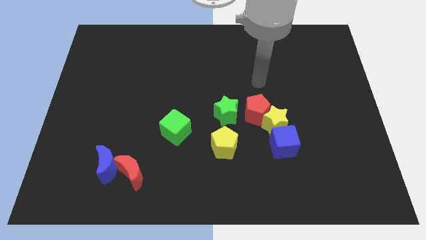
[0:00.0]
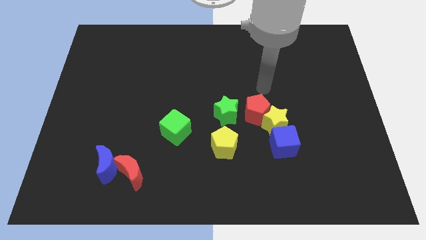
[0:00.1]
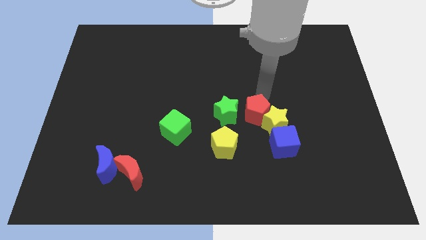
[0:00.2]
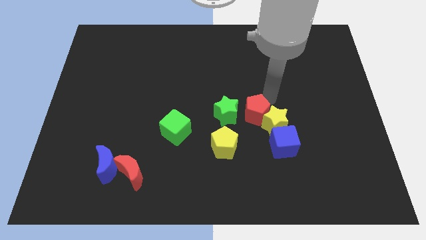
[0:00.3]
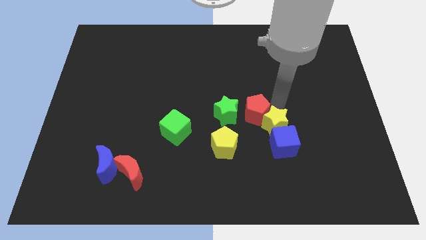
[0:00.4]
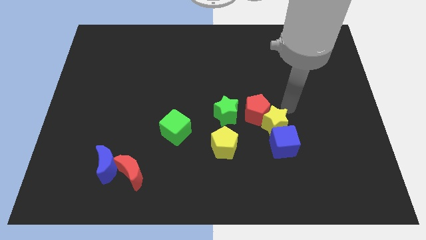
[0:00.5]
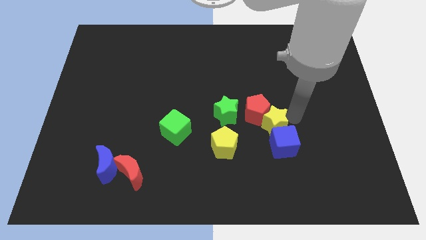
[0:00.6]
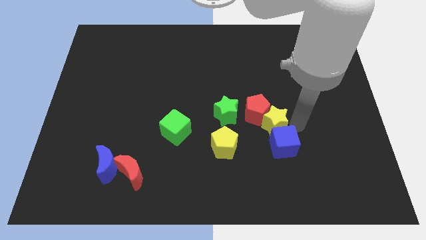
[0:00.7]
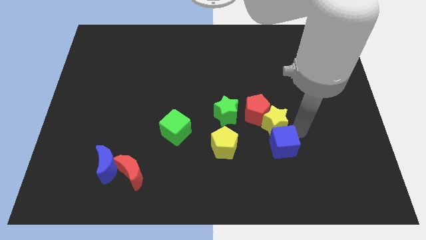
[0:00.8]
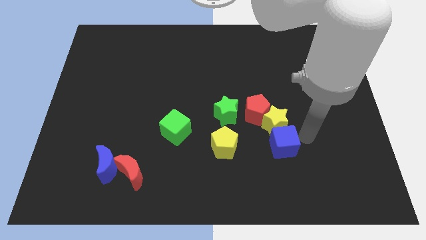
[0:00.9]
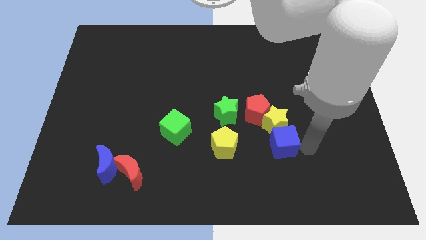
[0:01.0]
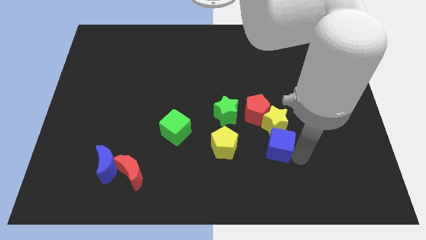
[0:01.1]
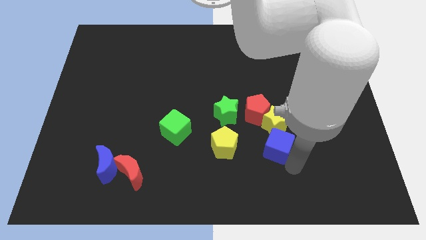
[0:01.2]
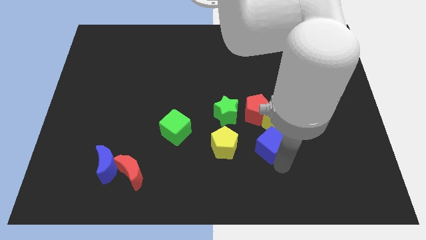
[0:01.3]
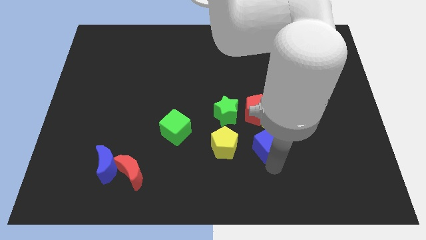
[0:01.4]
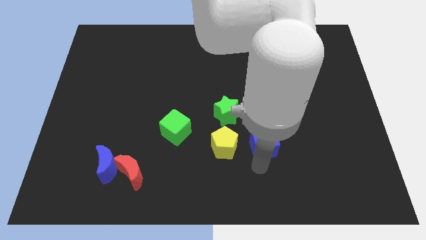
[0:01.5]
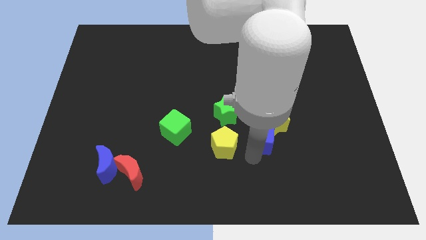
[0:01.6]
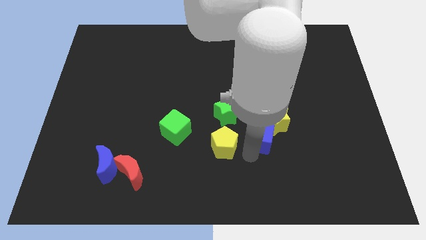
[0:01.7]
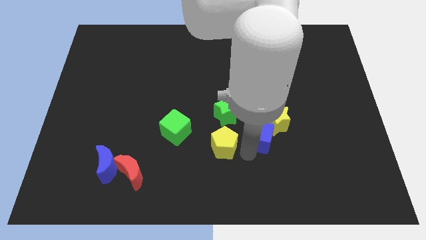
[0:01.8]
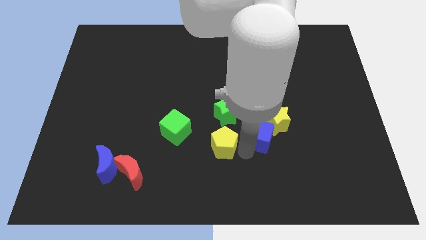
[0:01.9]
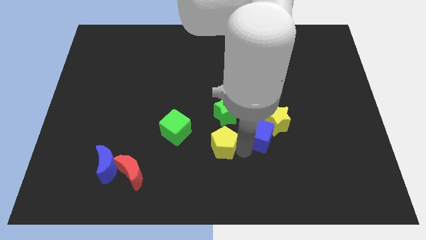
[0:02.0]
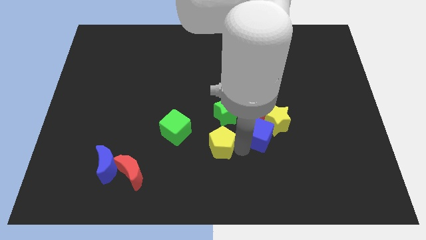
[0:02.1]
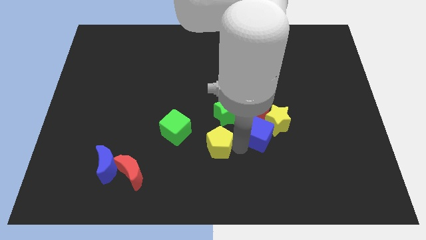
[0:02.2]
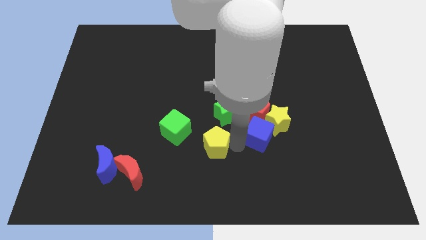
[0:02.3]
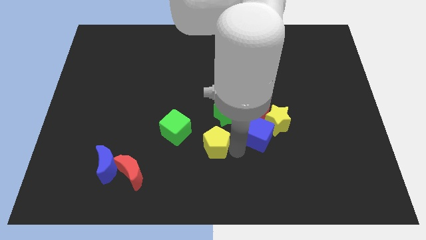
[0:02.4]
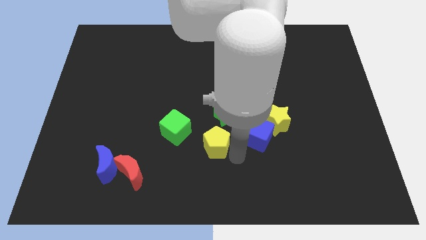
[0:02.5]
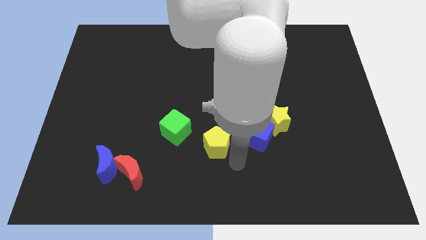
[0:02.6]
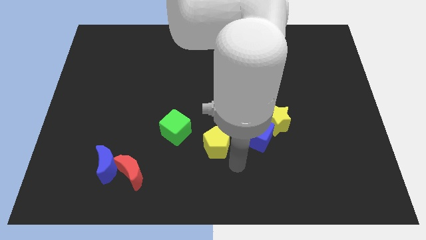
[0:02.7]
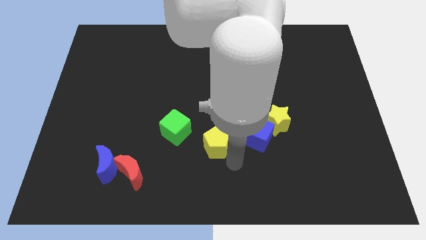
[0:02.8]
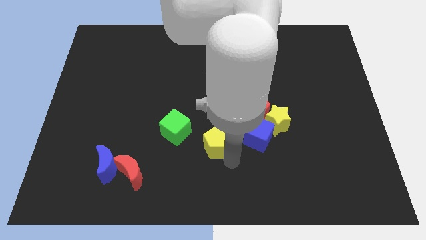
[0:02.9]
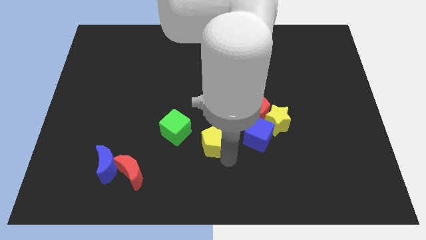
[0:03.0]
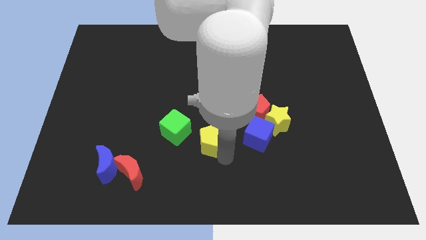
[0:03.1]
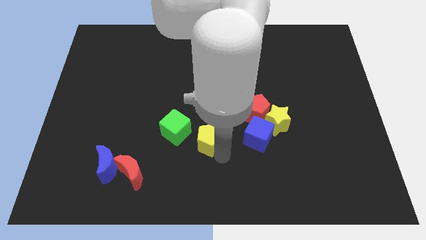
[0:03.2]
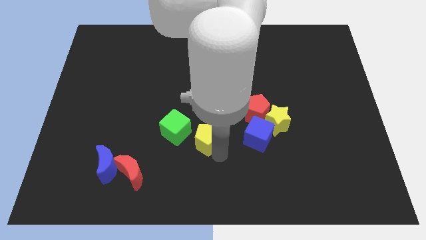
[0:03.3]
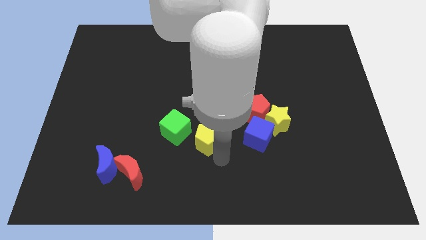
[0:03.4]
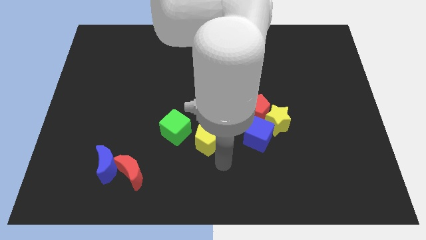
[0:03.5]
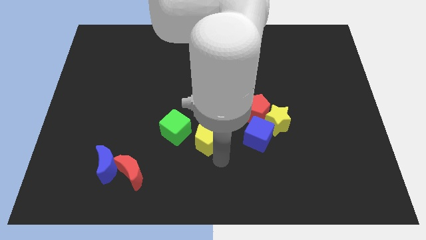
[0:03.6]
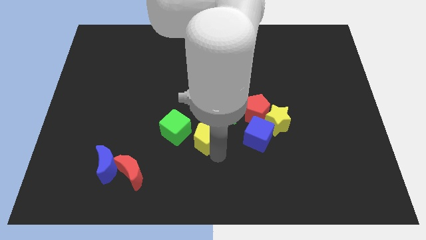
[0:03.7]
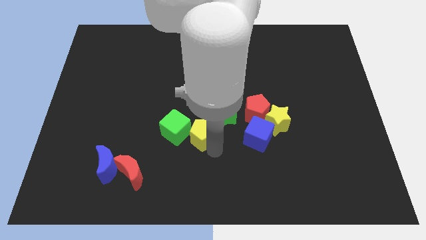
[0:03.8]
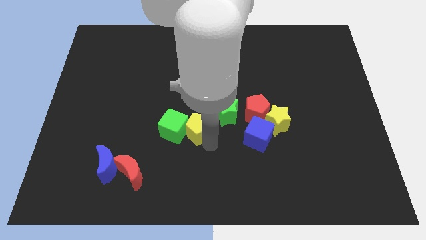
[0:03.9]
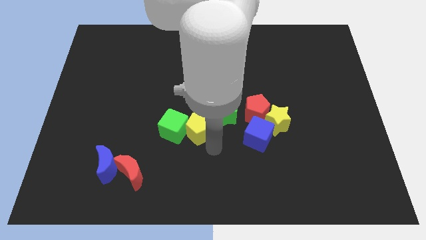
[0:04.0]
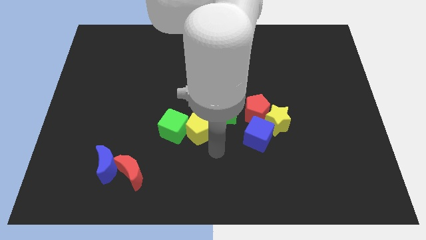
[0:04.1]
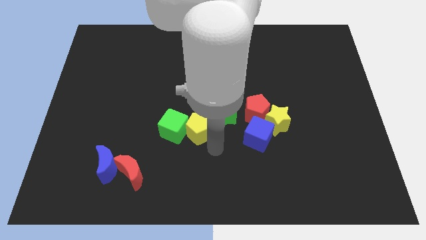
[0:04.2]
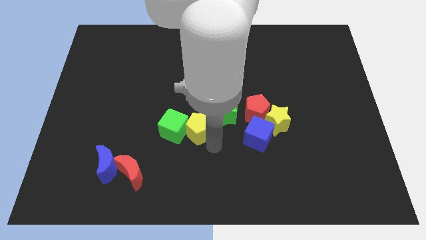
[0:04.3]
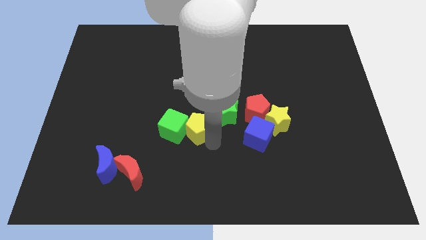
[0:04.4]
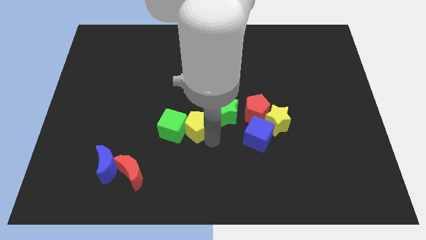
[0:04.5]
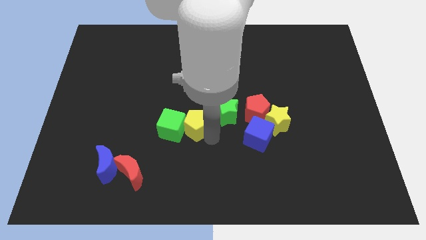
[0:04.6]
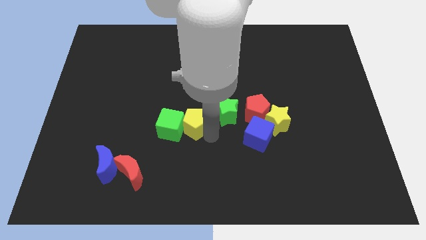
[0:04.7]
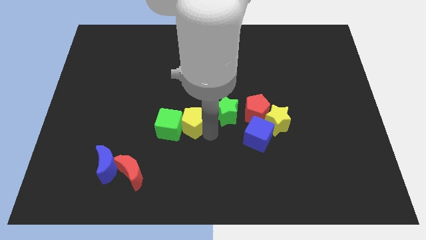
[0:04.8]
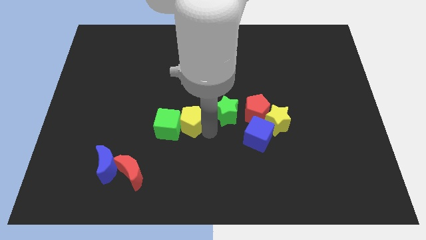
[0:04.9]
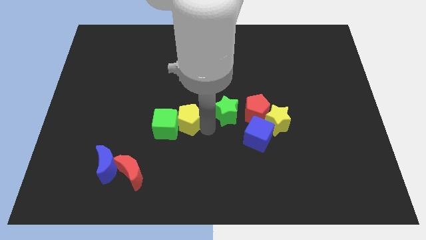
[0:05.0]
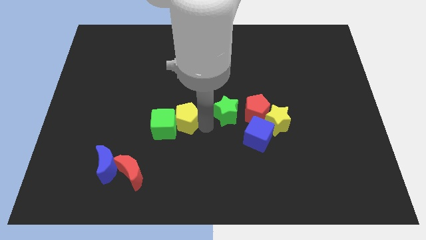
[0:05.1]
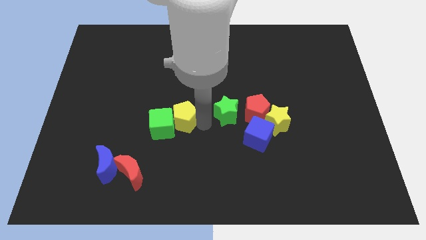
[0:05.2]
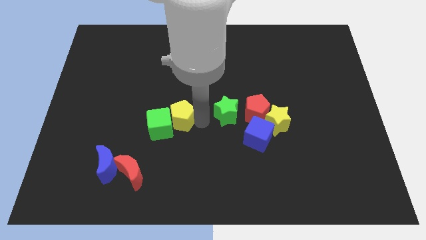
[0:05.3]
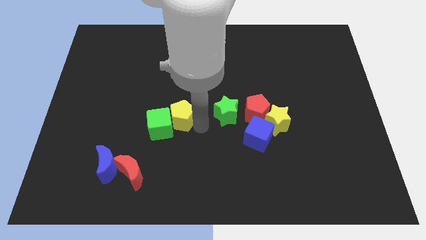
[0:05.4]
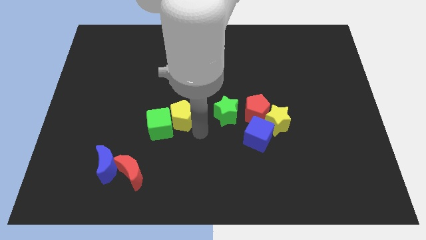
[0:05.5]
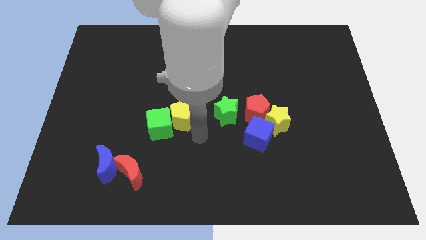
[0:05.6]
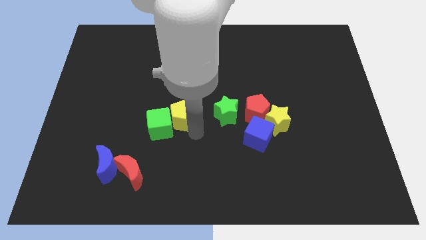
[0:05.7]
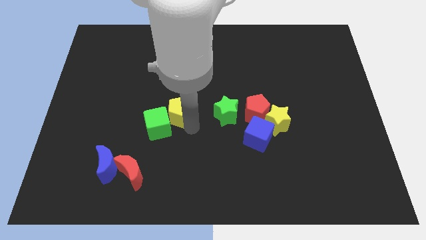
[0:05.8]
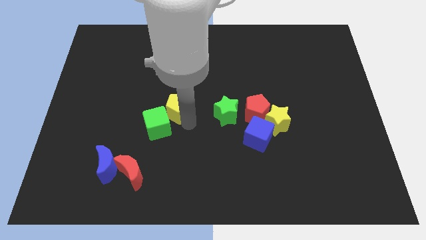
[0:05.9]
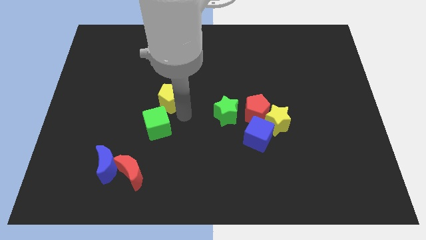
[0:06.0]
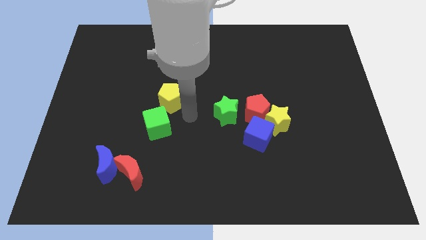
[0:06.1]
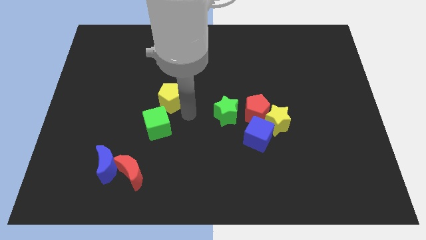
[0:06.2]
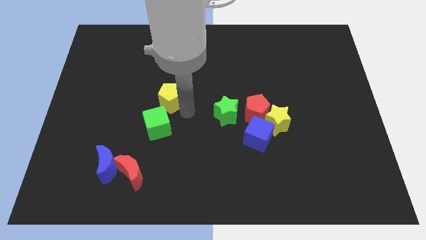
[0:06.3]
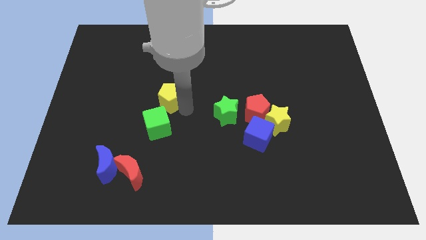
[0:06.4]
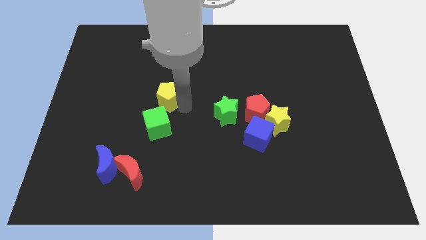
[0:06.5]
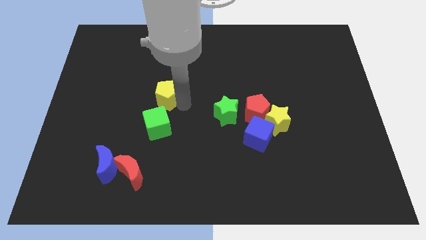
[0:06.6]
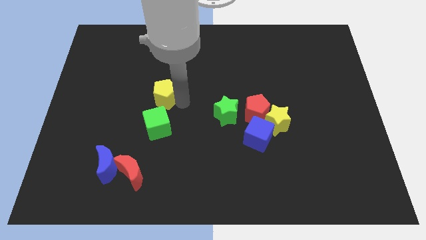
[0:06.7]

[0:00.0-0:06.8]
push the yellow pentagon diagonally upwards and to the left

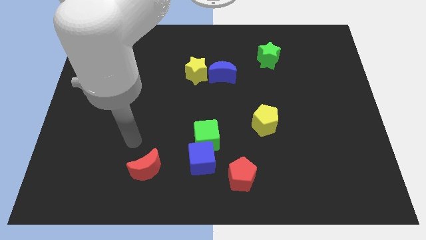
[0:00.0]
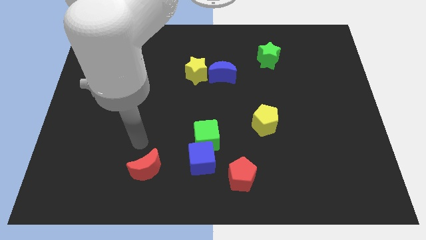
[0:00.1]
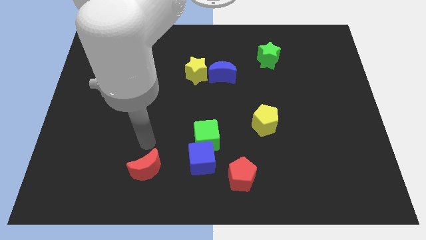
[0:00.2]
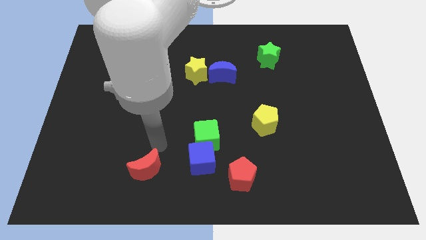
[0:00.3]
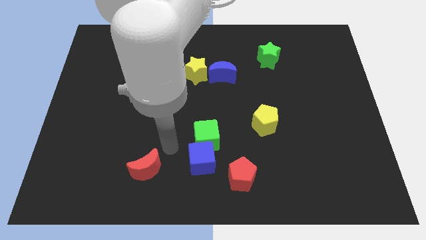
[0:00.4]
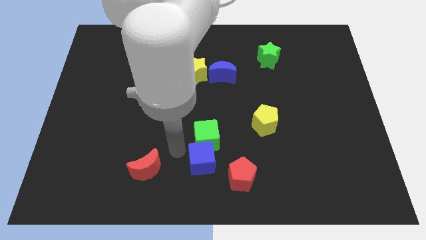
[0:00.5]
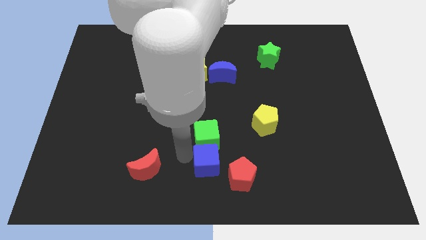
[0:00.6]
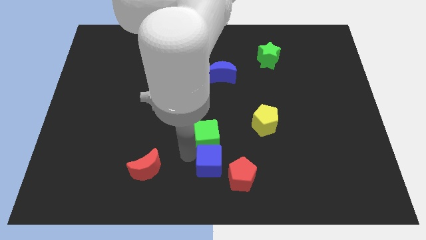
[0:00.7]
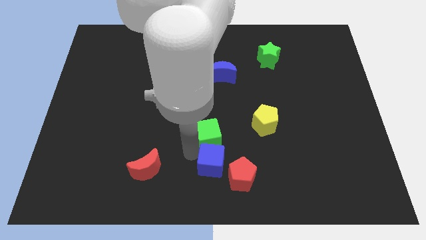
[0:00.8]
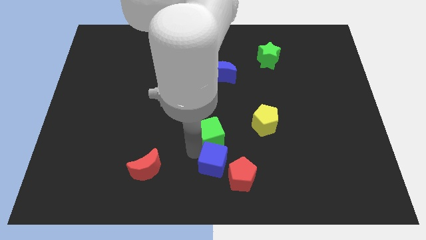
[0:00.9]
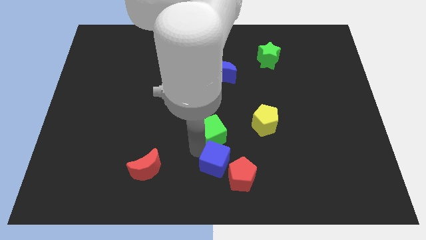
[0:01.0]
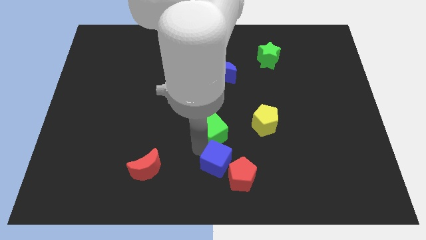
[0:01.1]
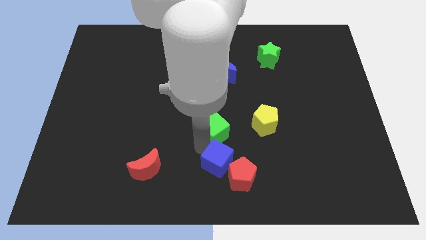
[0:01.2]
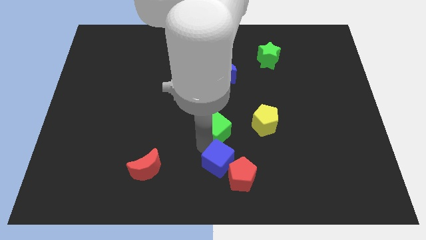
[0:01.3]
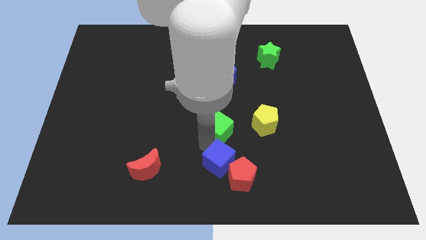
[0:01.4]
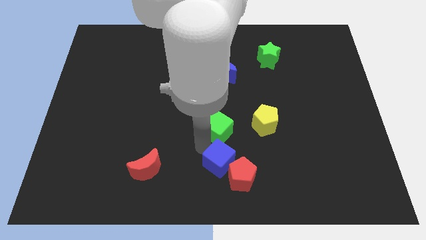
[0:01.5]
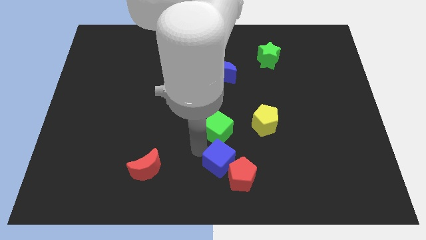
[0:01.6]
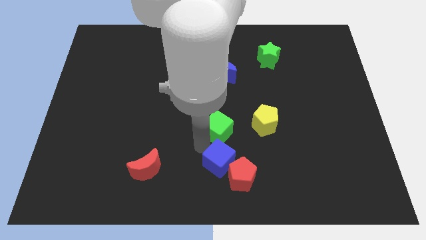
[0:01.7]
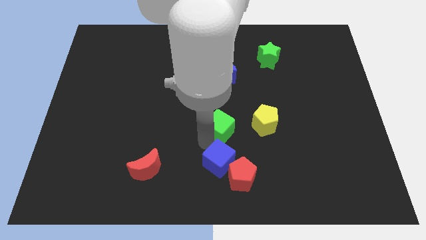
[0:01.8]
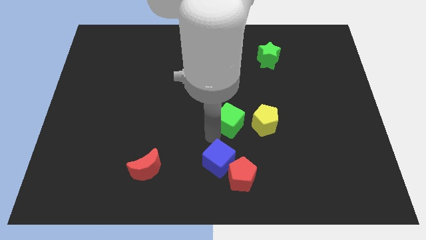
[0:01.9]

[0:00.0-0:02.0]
slightly slide the green cube upwards and then to the right

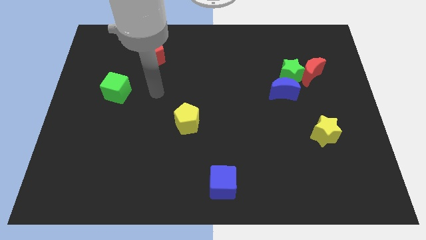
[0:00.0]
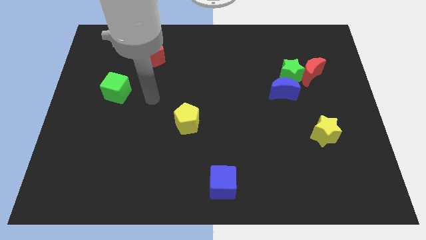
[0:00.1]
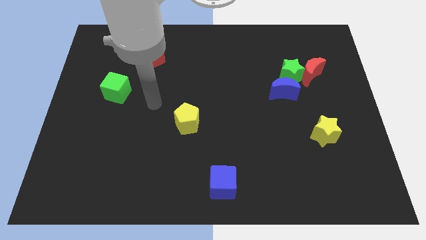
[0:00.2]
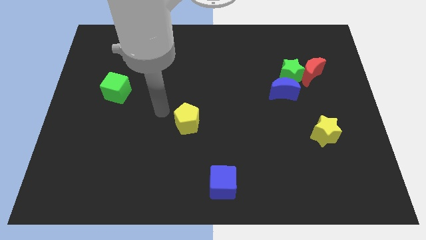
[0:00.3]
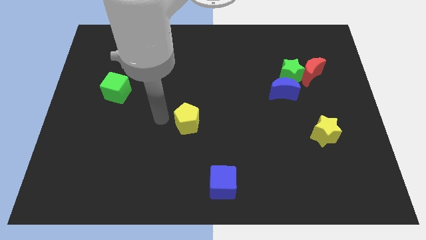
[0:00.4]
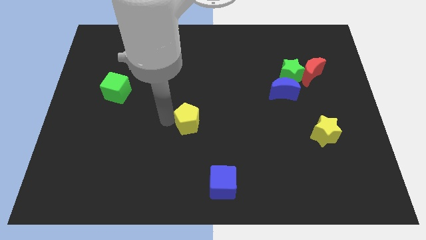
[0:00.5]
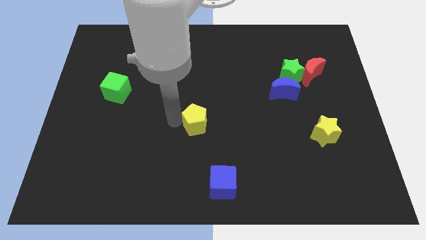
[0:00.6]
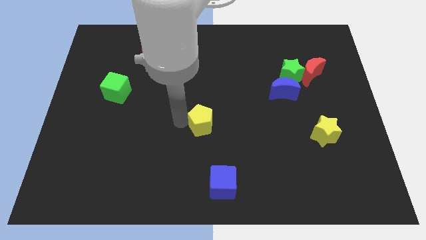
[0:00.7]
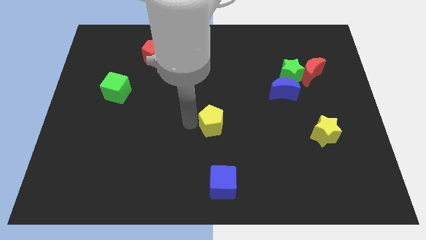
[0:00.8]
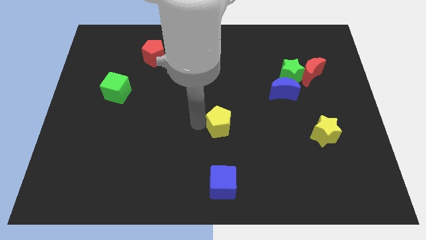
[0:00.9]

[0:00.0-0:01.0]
slightly slide the yellow pentagon to the right
